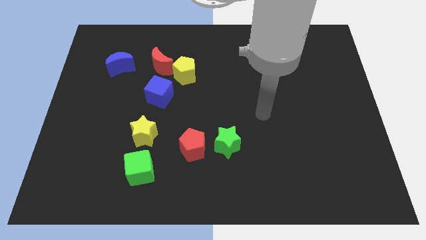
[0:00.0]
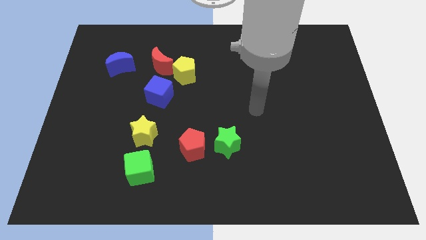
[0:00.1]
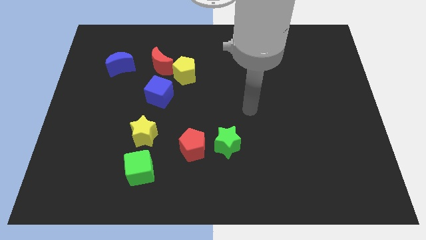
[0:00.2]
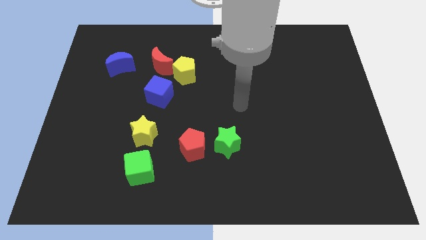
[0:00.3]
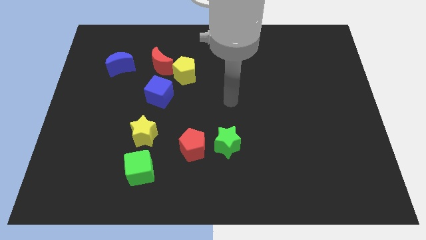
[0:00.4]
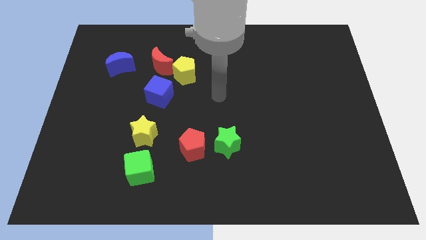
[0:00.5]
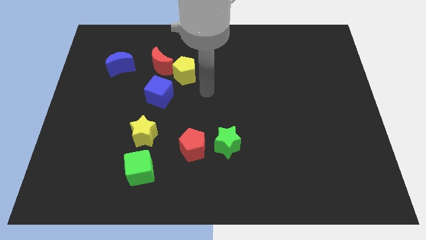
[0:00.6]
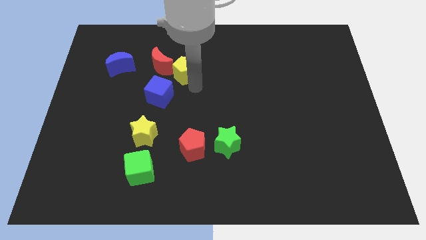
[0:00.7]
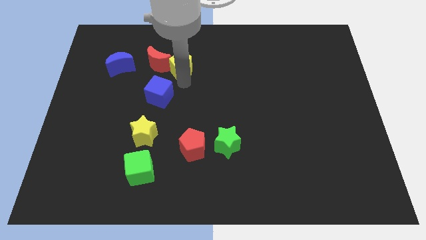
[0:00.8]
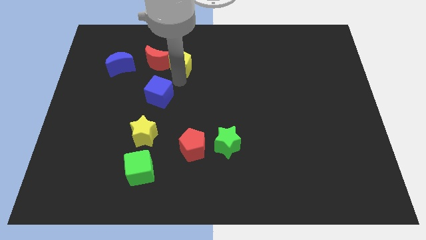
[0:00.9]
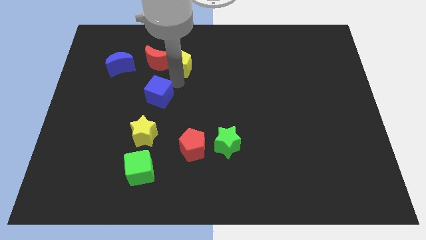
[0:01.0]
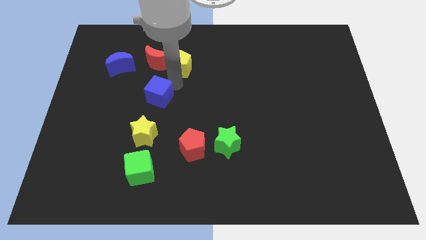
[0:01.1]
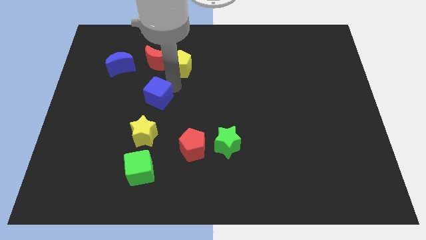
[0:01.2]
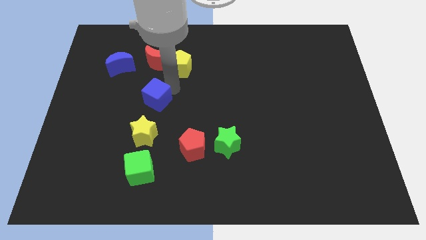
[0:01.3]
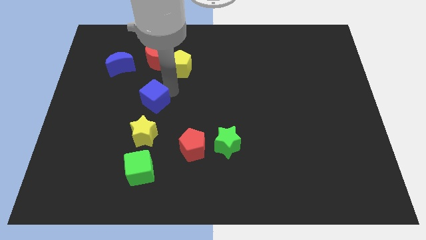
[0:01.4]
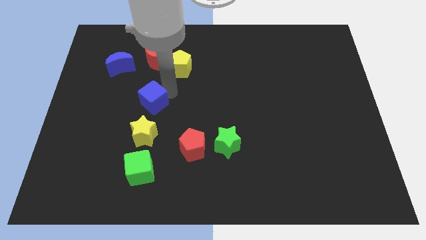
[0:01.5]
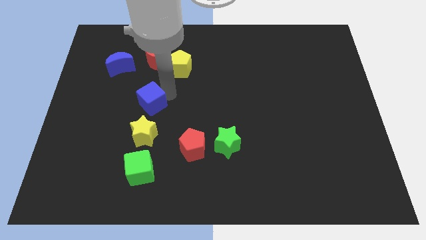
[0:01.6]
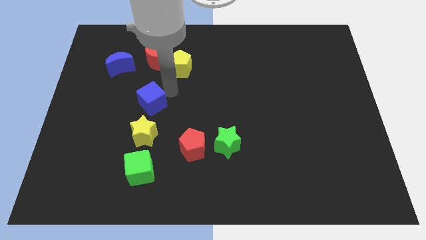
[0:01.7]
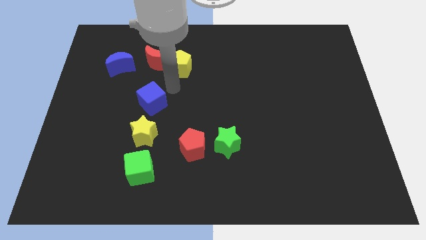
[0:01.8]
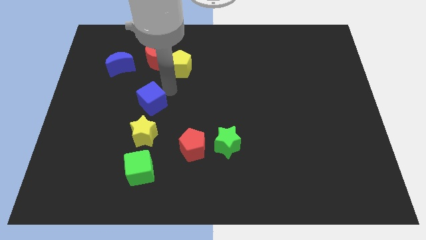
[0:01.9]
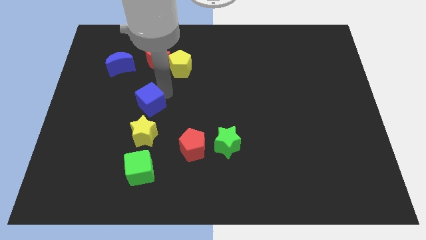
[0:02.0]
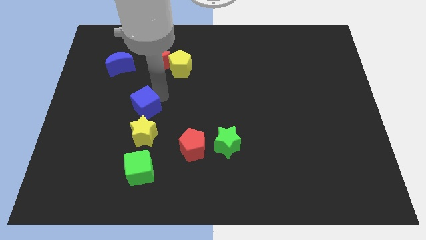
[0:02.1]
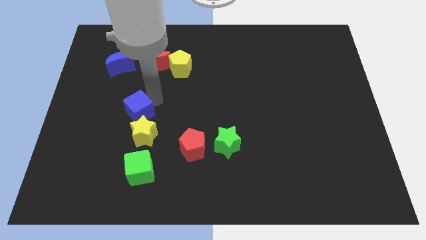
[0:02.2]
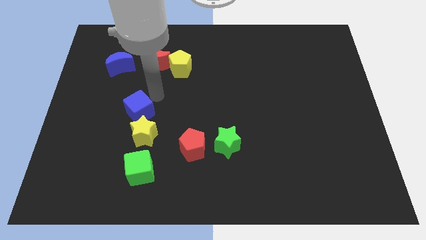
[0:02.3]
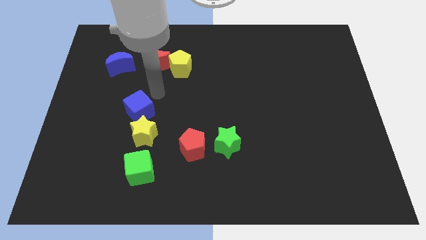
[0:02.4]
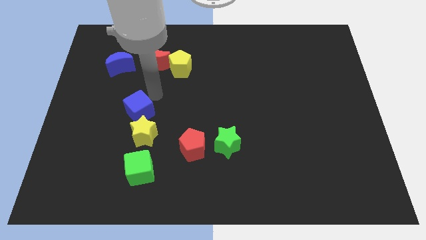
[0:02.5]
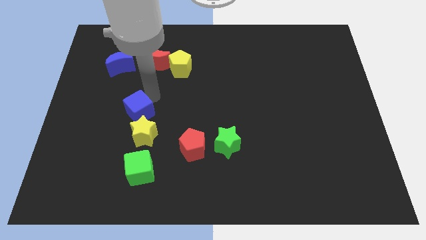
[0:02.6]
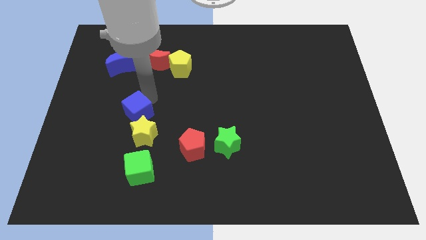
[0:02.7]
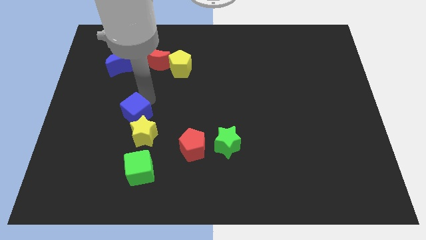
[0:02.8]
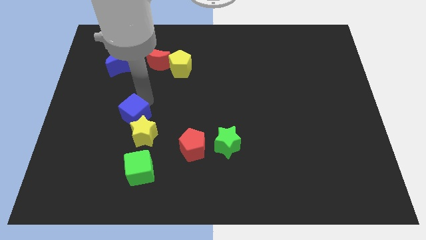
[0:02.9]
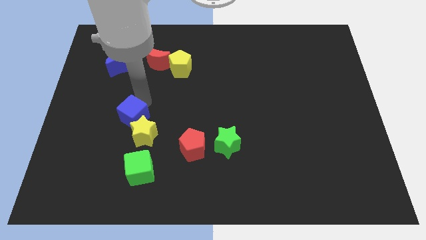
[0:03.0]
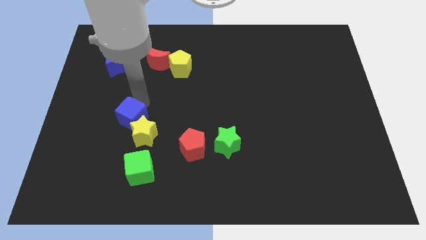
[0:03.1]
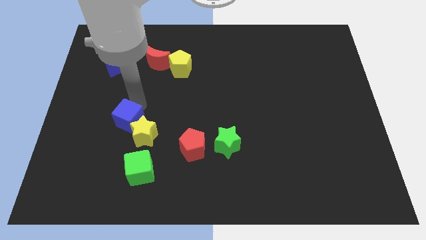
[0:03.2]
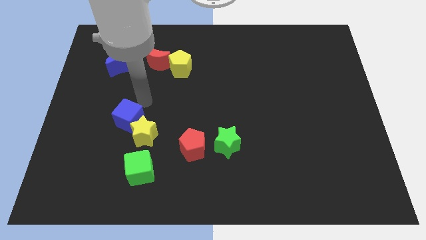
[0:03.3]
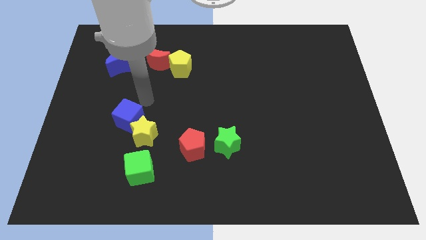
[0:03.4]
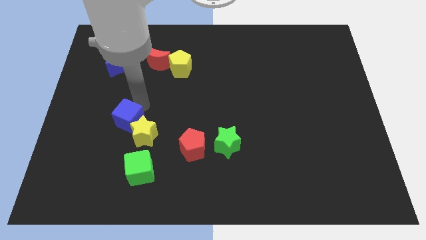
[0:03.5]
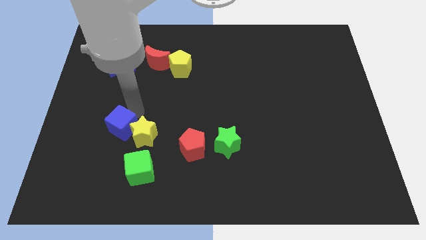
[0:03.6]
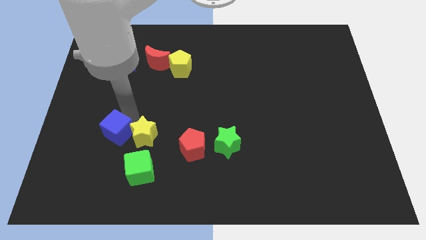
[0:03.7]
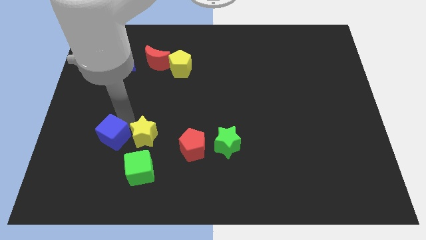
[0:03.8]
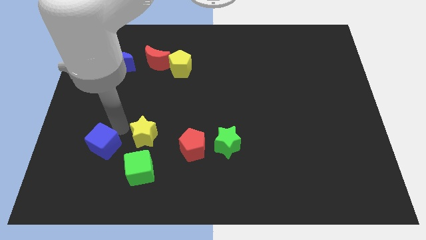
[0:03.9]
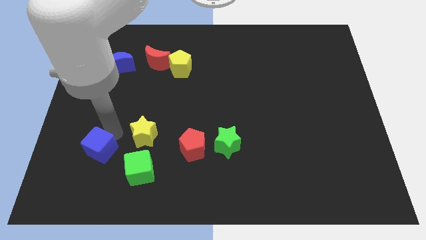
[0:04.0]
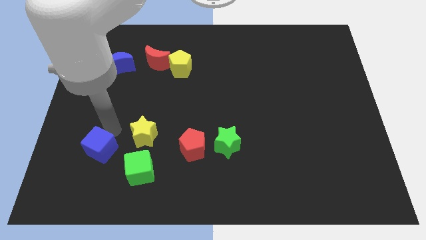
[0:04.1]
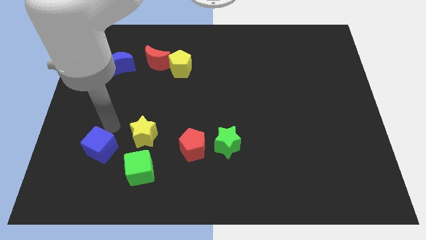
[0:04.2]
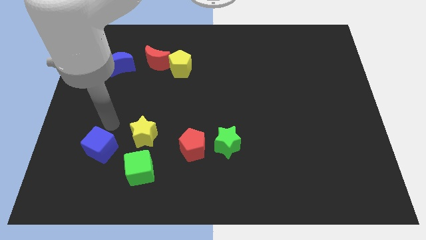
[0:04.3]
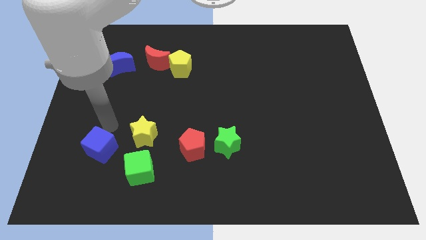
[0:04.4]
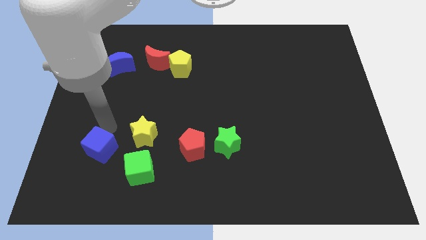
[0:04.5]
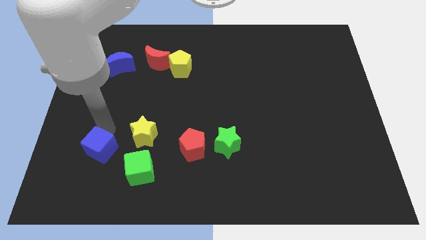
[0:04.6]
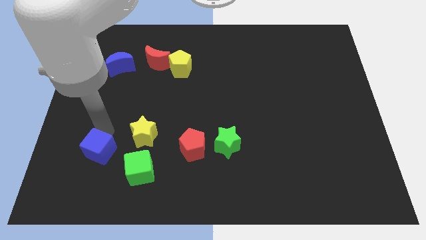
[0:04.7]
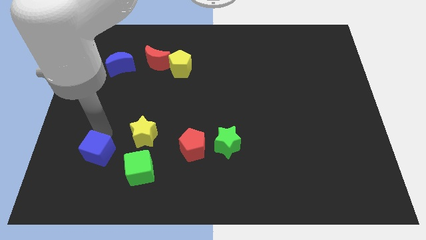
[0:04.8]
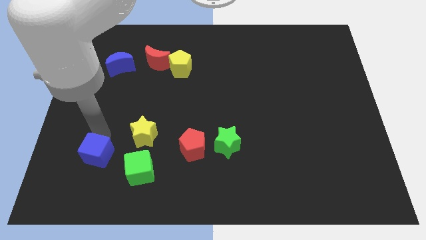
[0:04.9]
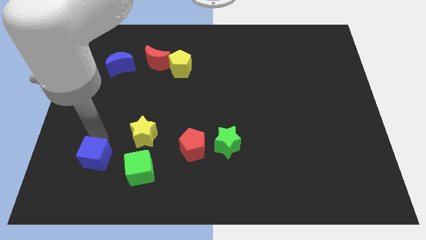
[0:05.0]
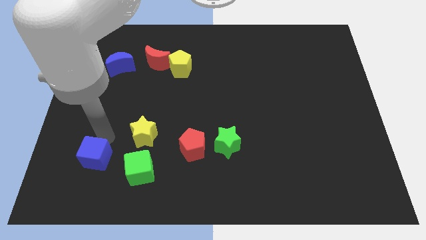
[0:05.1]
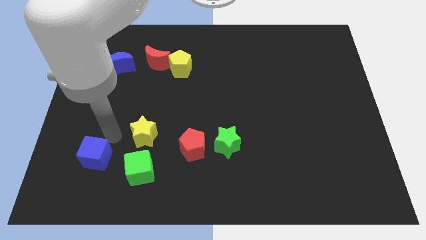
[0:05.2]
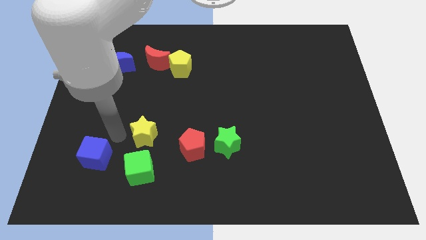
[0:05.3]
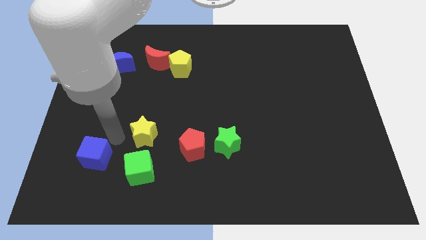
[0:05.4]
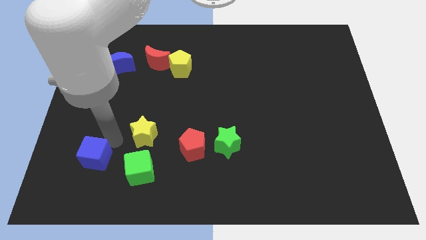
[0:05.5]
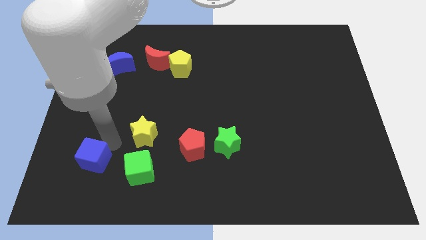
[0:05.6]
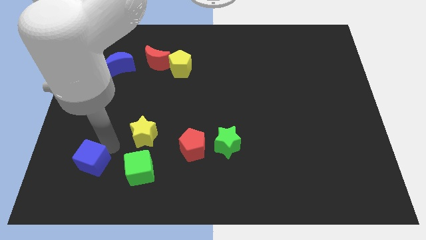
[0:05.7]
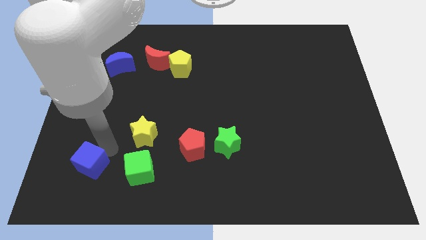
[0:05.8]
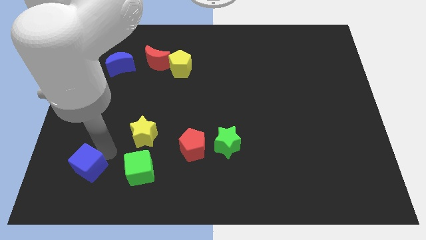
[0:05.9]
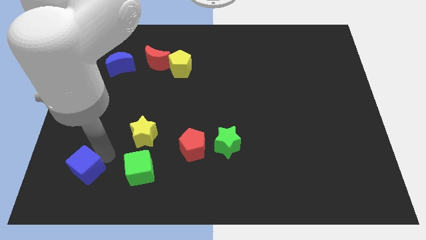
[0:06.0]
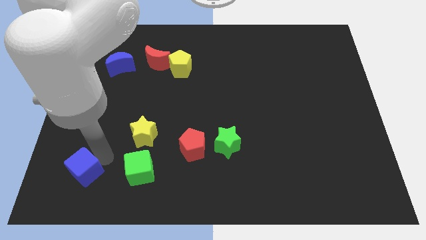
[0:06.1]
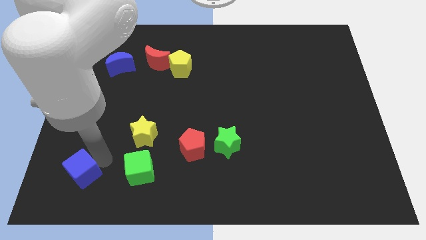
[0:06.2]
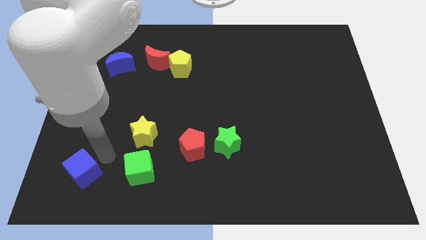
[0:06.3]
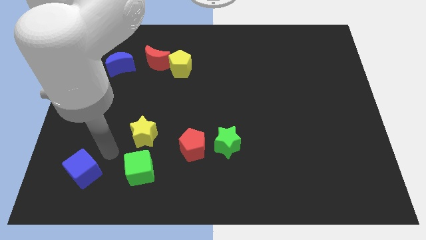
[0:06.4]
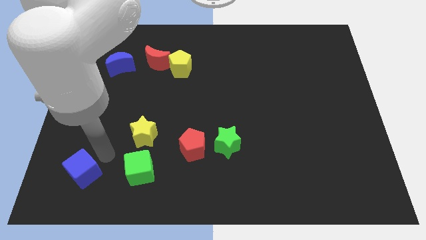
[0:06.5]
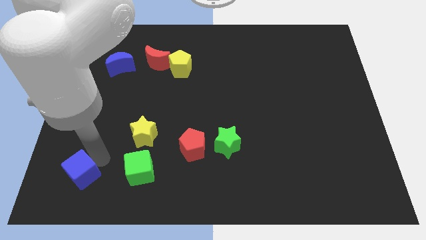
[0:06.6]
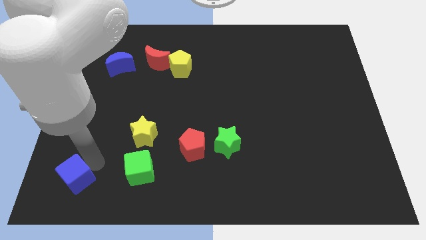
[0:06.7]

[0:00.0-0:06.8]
push the blue cube to the bottom left corner
